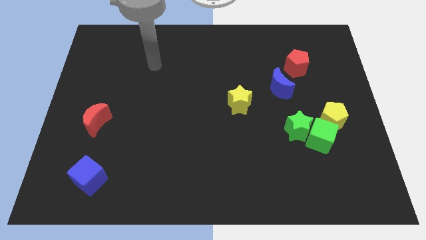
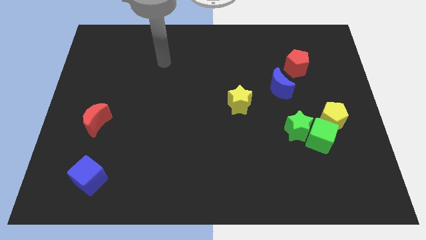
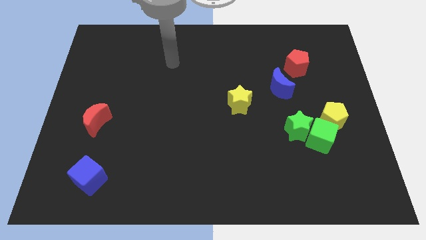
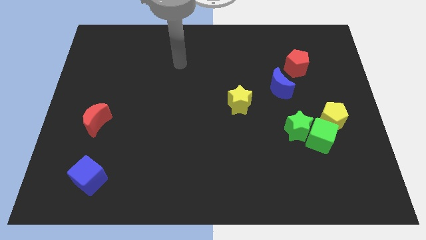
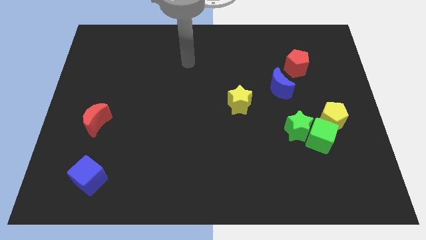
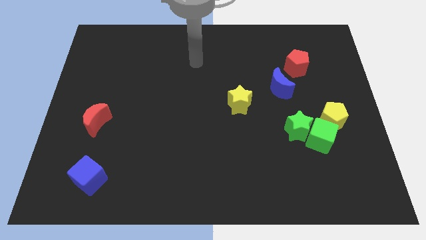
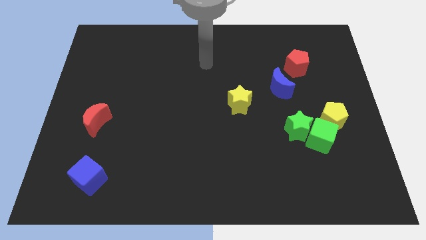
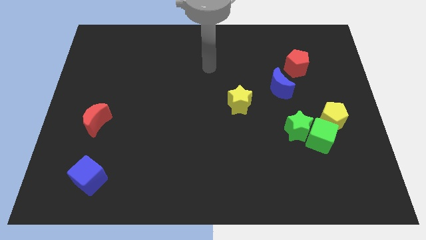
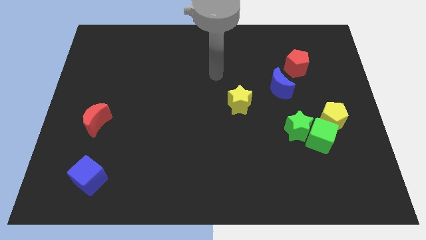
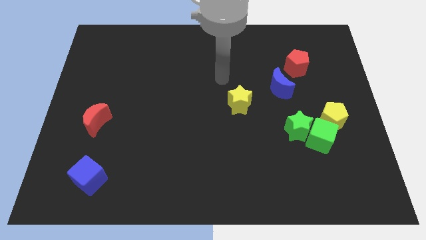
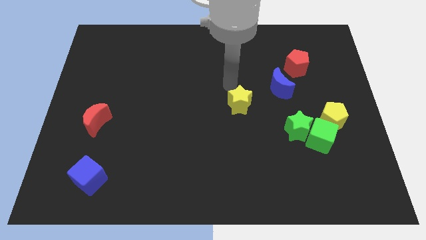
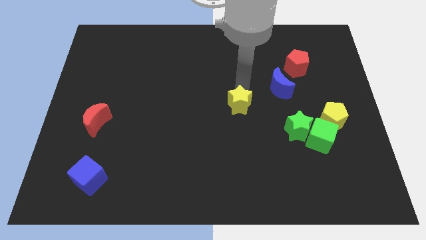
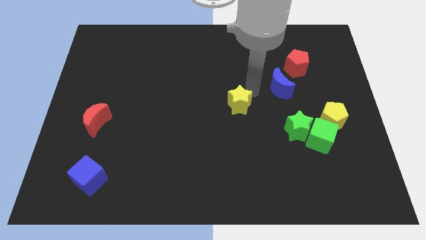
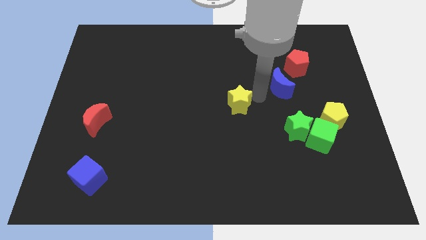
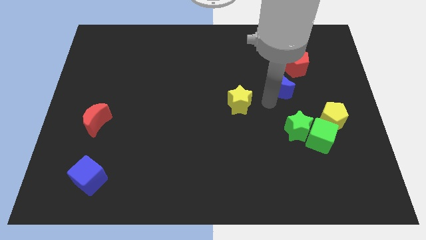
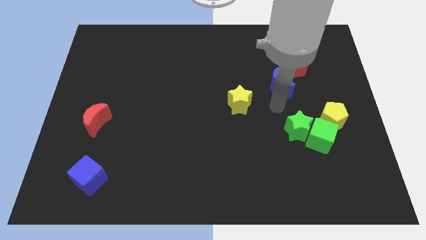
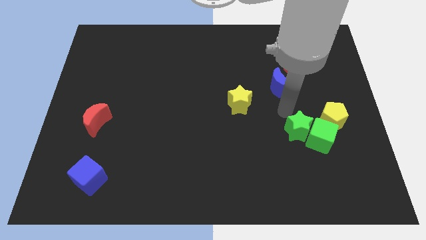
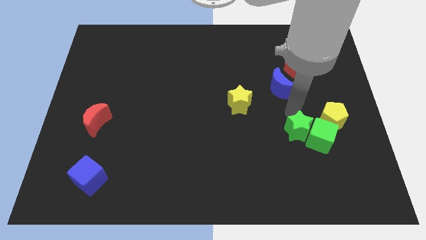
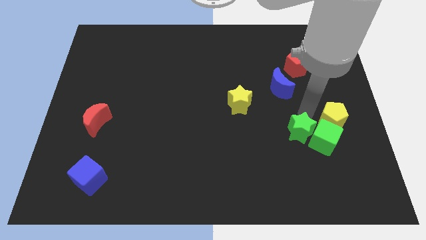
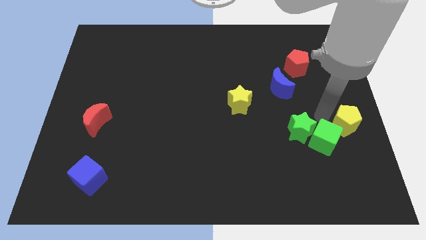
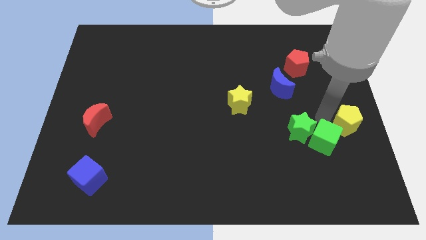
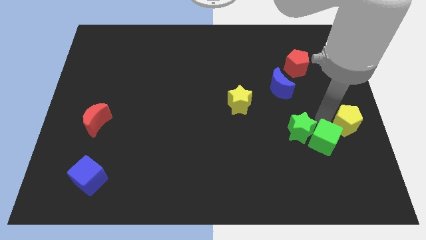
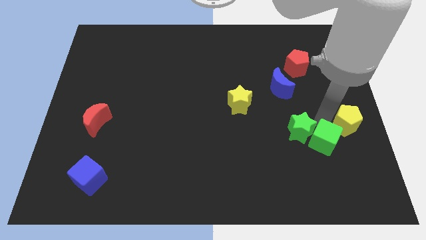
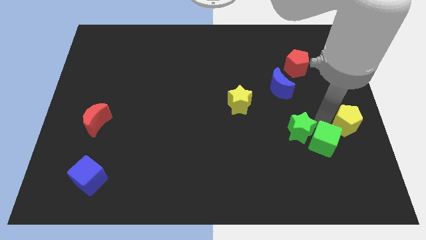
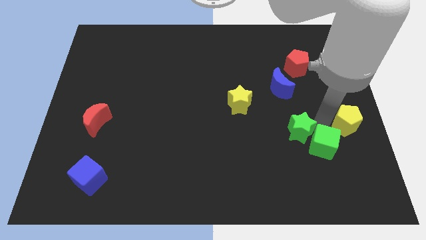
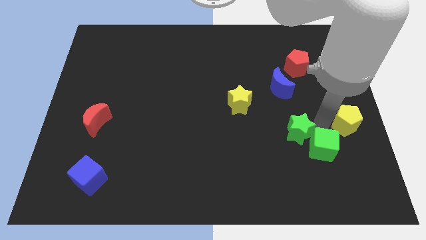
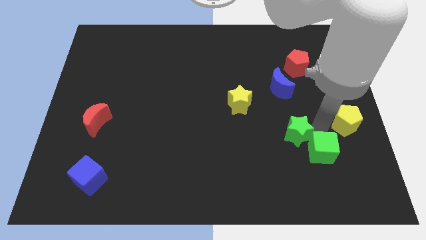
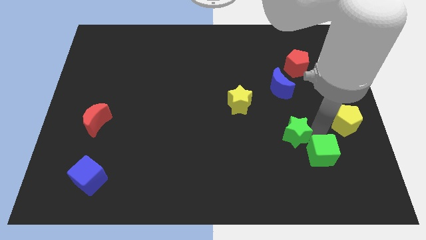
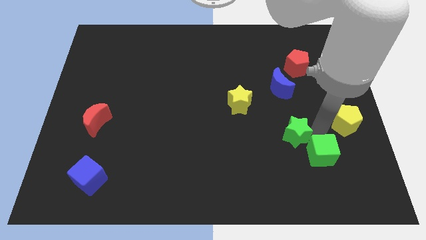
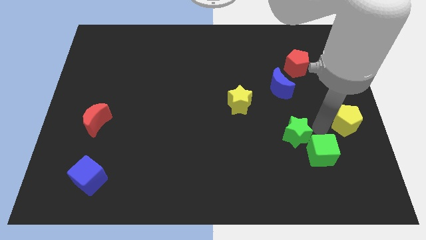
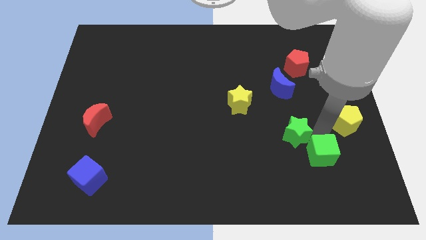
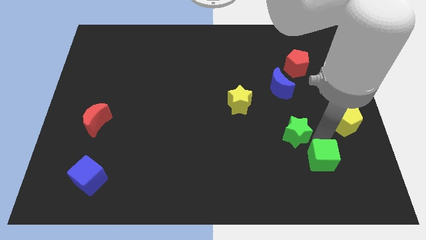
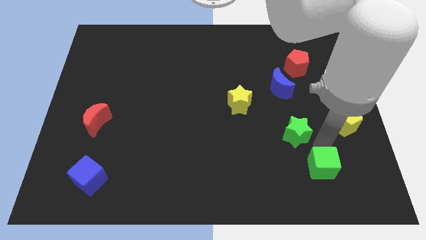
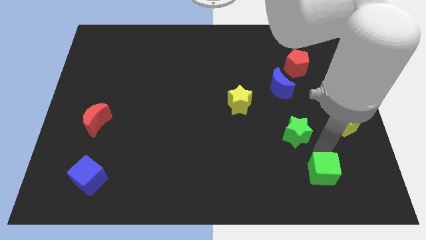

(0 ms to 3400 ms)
pull the green cube apart from the green star and yellow pentagon

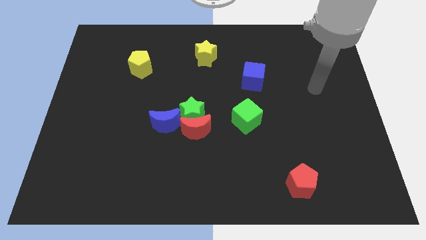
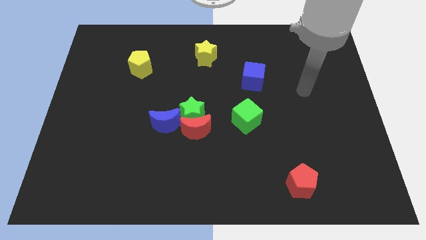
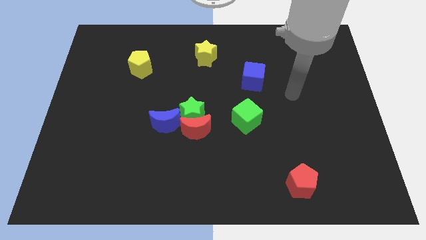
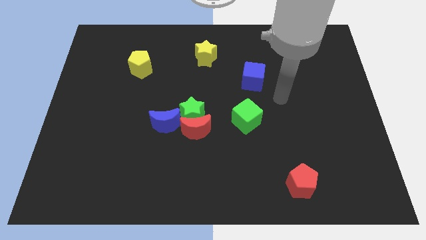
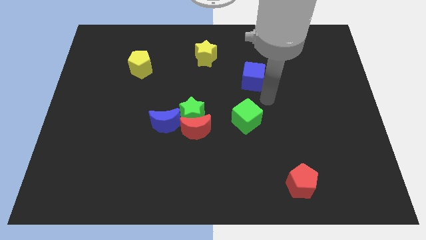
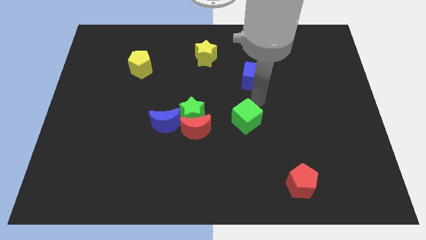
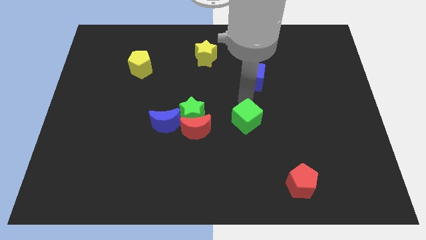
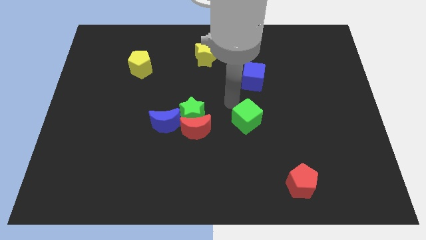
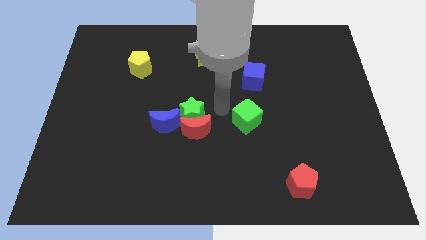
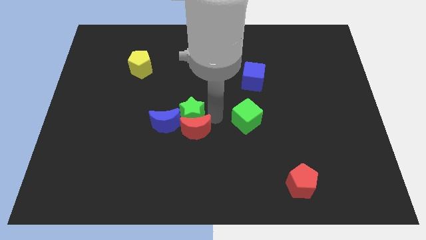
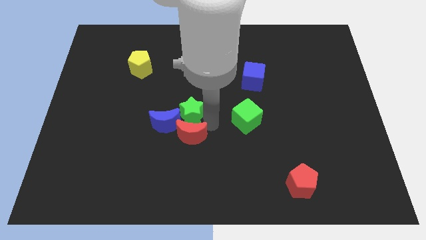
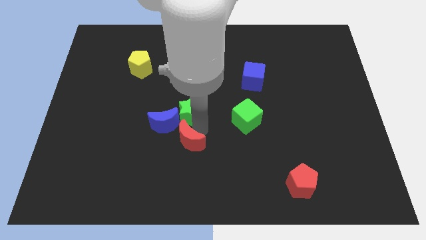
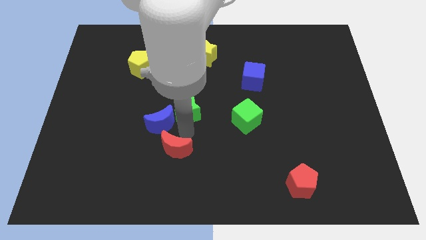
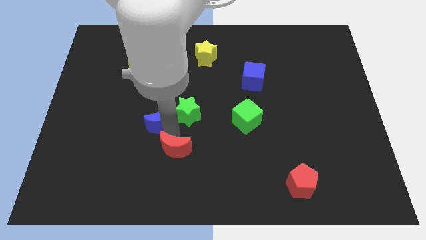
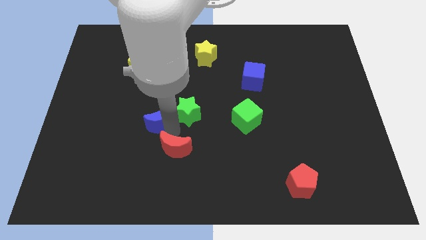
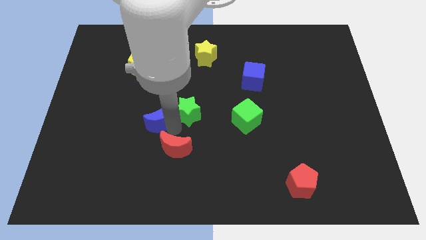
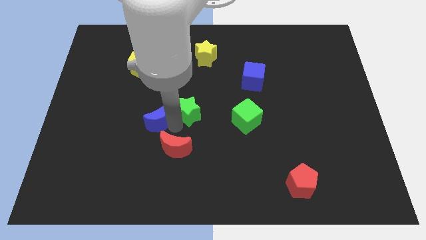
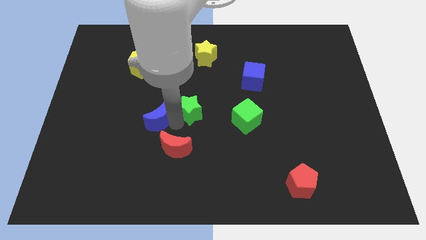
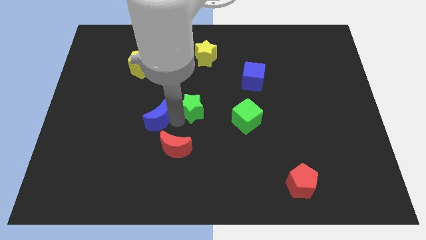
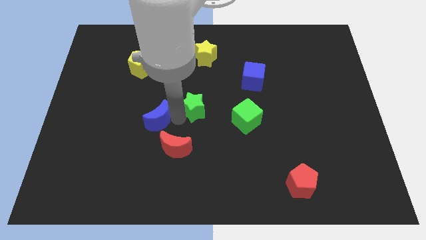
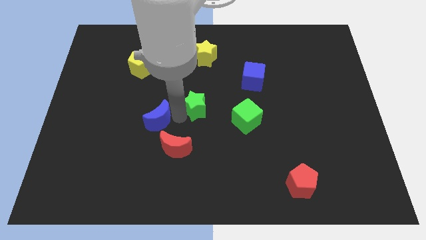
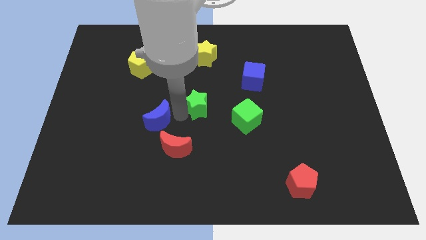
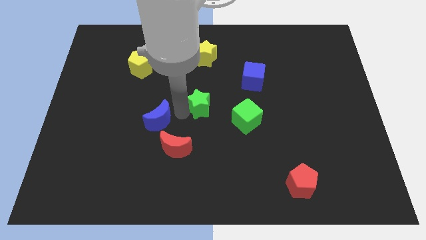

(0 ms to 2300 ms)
pull the green star apart from the red moon and blue moon

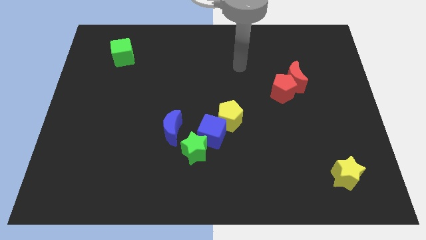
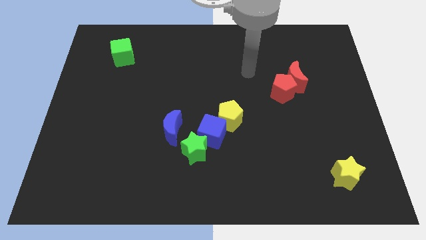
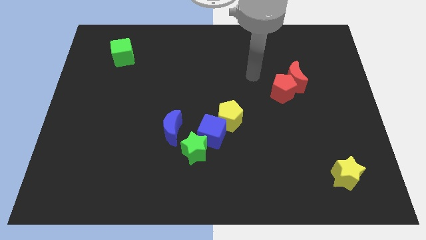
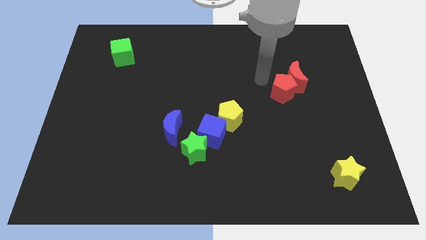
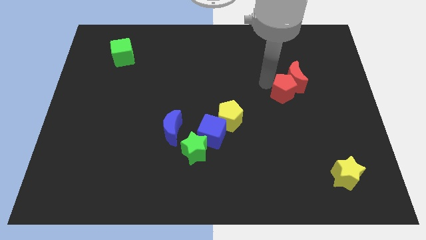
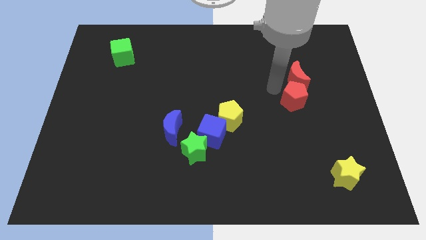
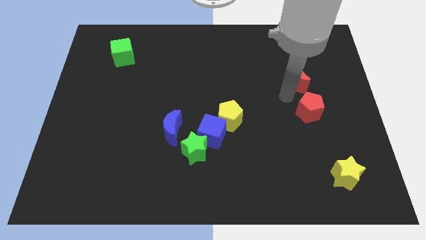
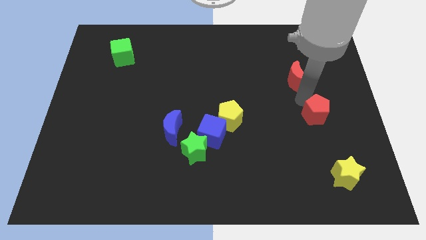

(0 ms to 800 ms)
separate the red moon from the red pentagon

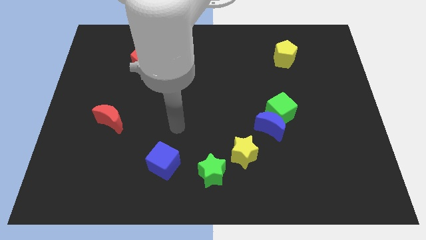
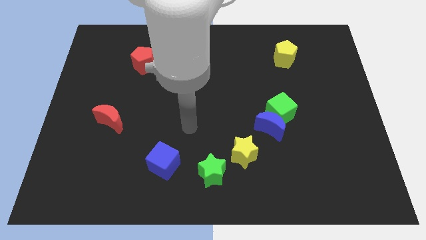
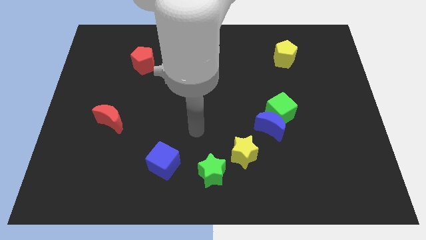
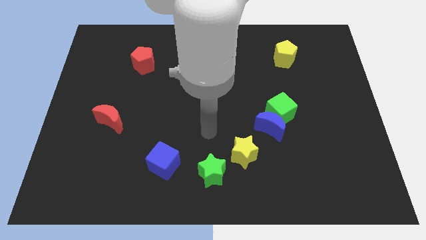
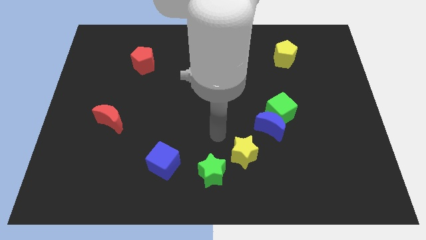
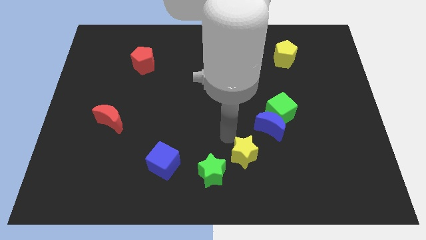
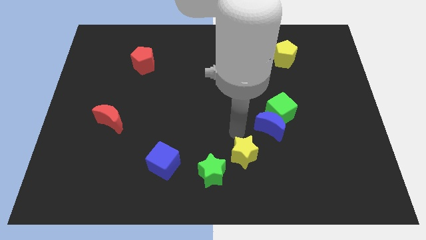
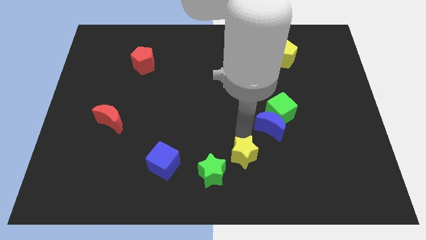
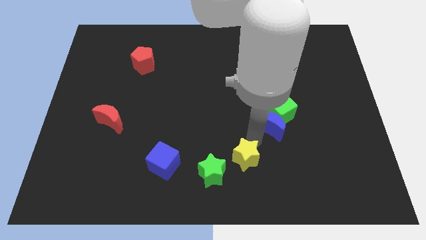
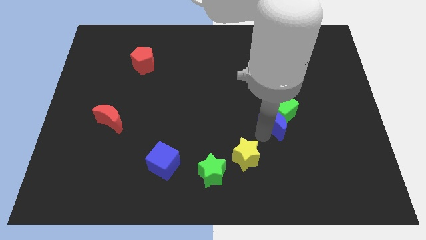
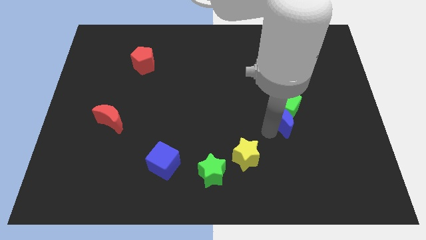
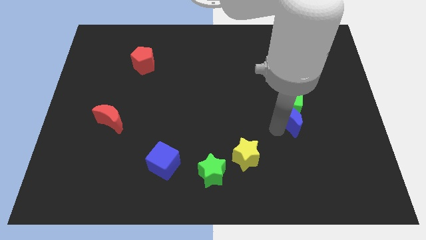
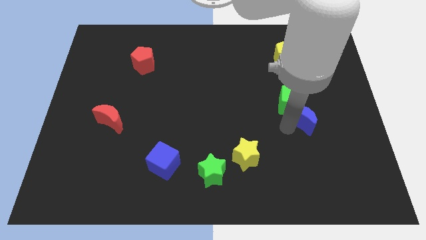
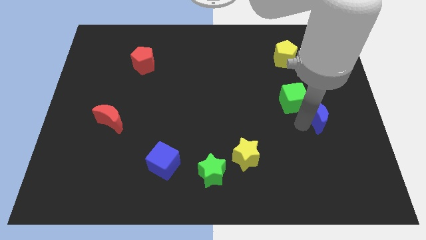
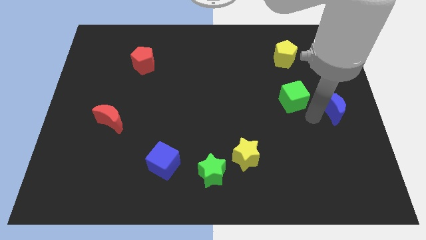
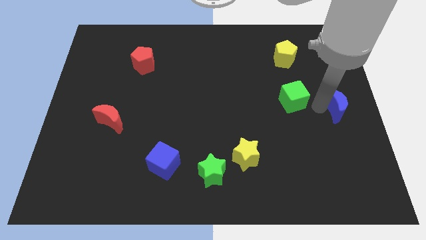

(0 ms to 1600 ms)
separate the green cube from the blue moon

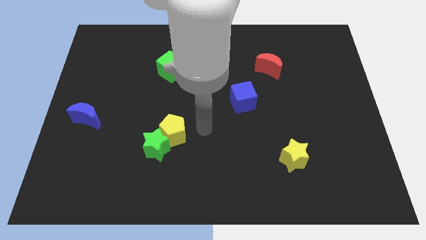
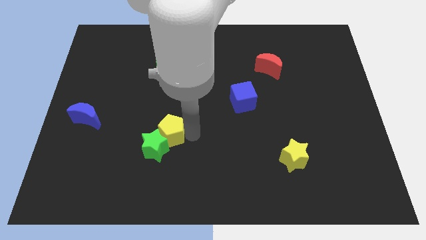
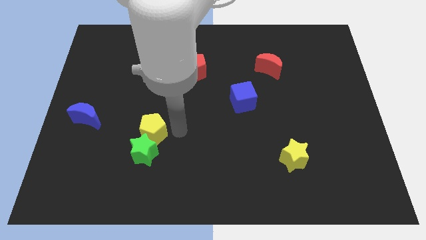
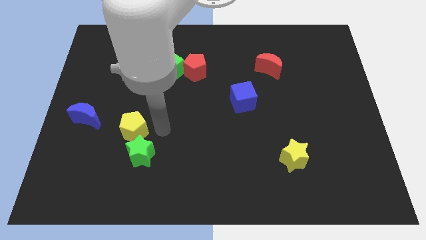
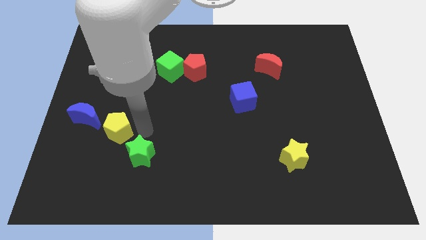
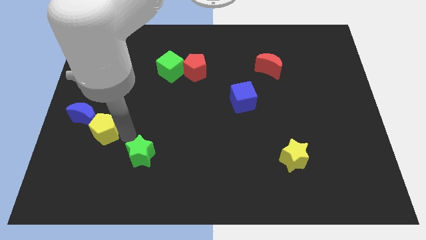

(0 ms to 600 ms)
separate the green star from the yellow pentagon

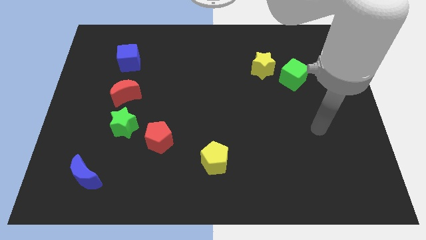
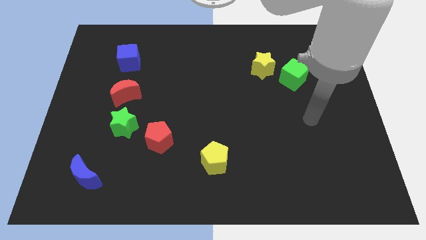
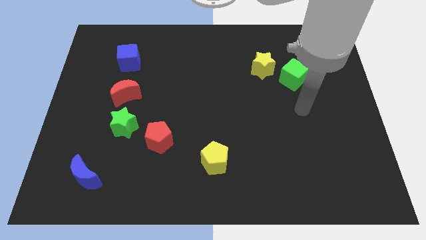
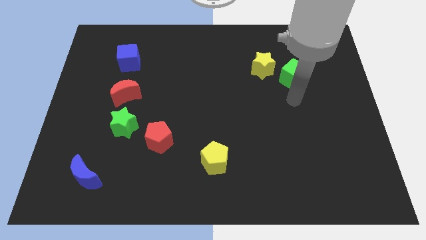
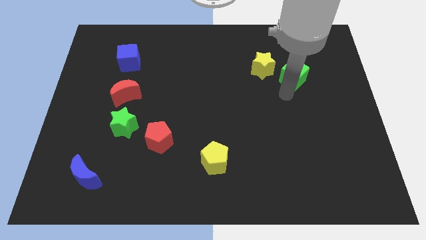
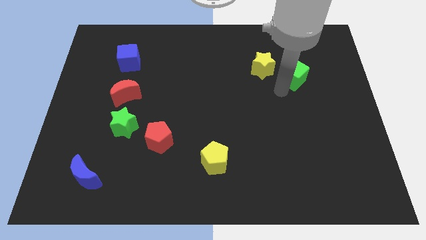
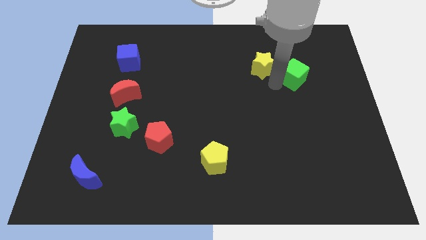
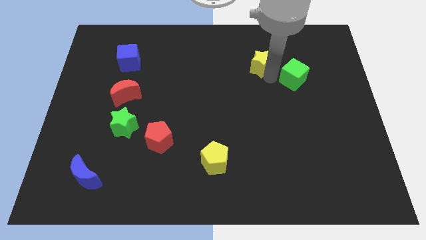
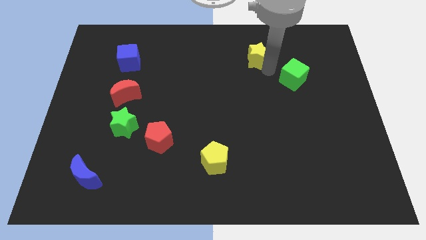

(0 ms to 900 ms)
separate the green cube from the yellow star
